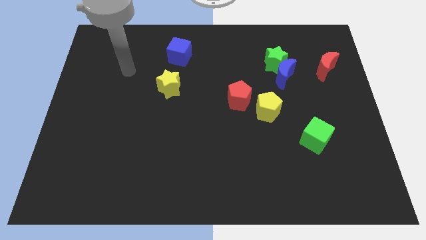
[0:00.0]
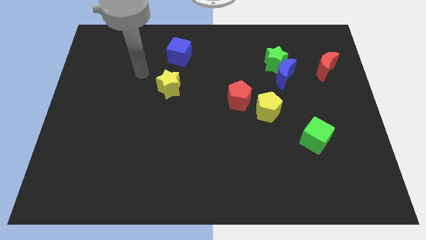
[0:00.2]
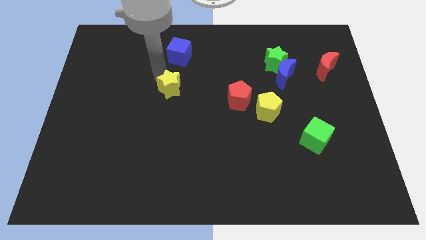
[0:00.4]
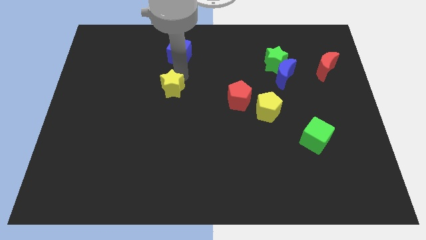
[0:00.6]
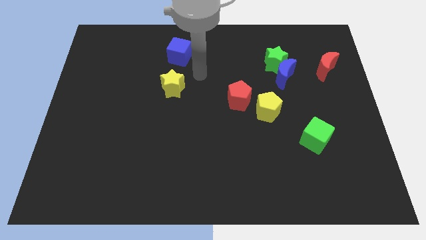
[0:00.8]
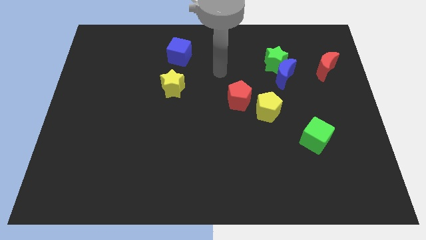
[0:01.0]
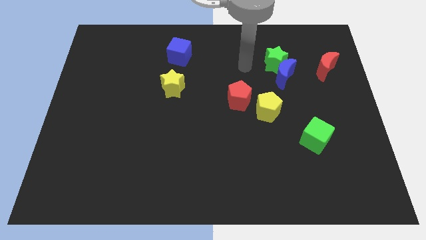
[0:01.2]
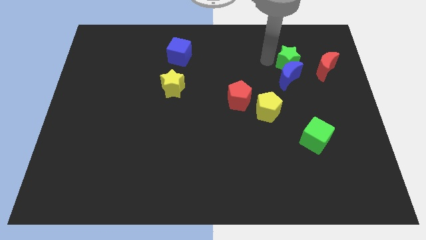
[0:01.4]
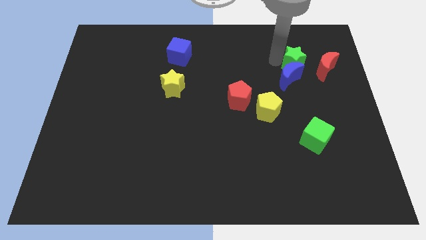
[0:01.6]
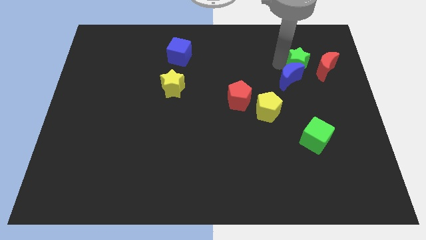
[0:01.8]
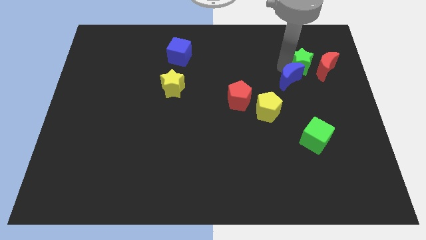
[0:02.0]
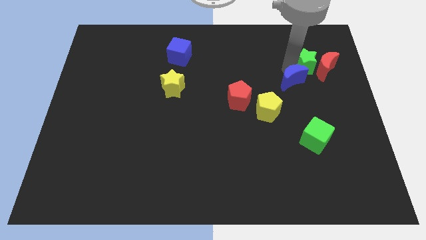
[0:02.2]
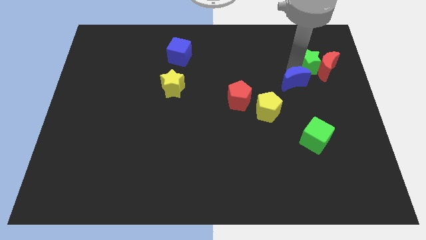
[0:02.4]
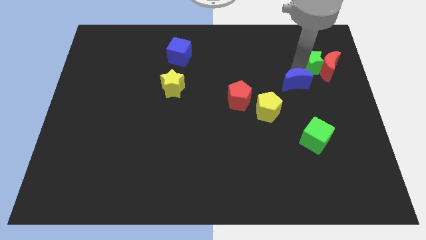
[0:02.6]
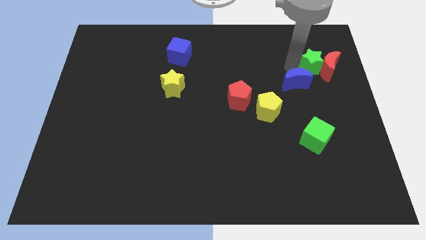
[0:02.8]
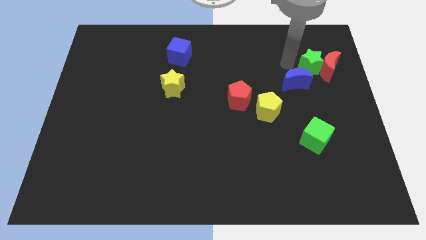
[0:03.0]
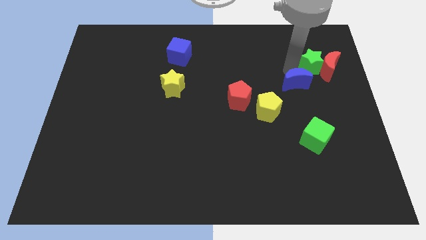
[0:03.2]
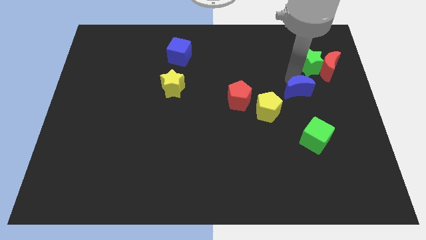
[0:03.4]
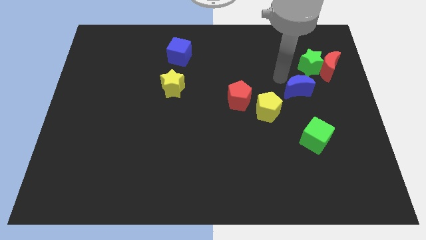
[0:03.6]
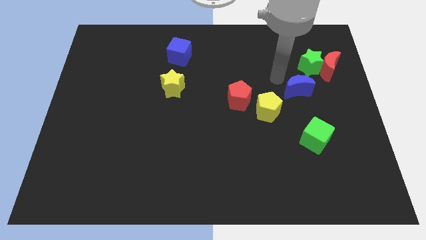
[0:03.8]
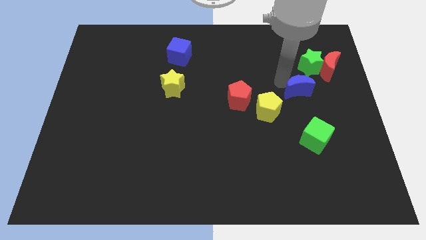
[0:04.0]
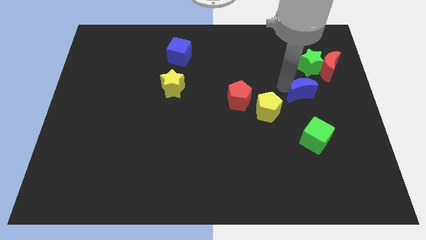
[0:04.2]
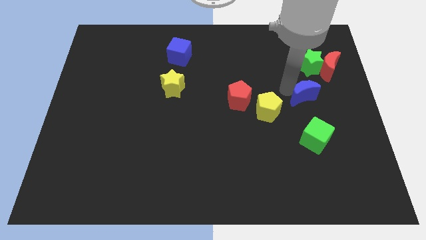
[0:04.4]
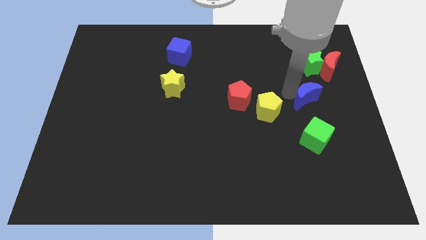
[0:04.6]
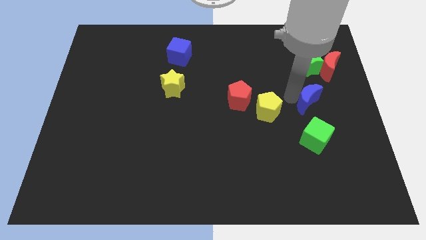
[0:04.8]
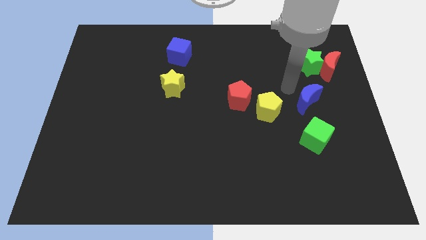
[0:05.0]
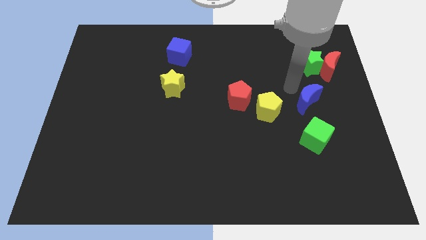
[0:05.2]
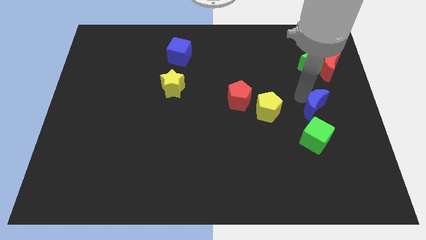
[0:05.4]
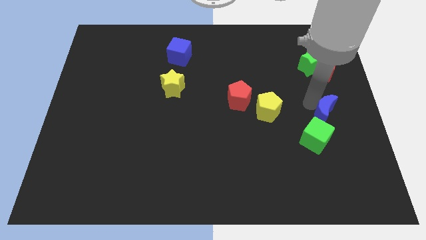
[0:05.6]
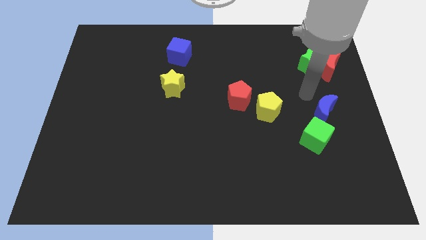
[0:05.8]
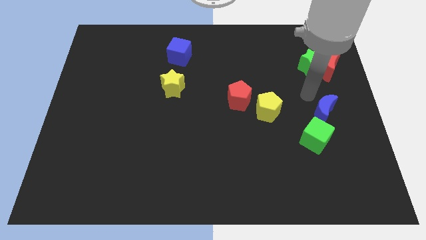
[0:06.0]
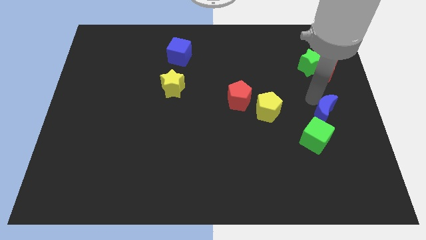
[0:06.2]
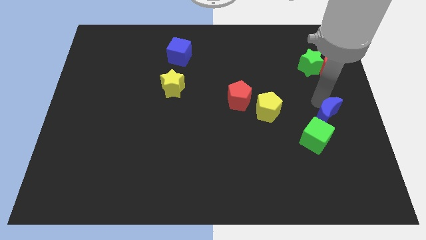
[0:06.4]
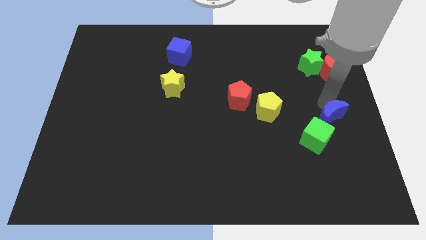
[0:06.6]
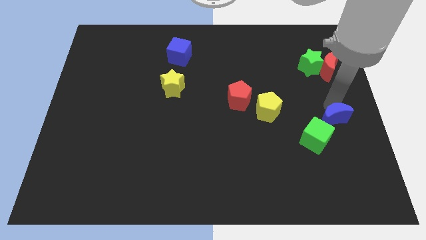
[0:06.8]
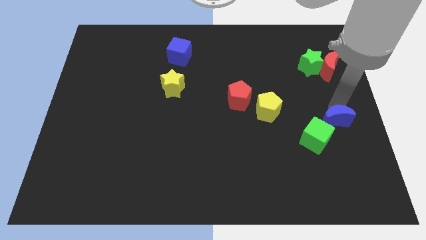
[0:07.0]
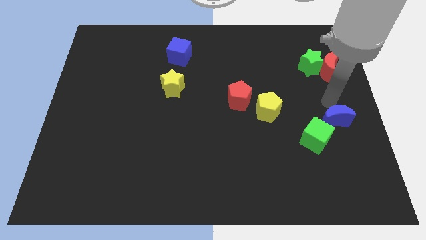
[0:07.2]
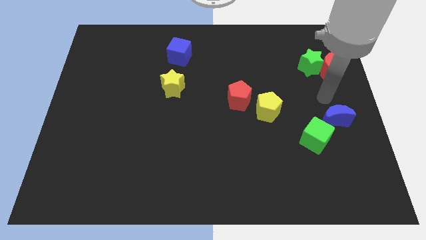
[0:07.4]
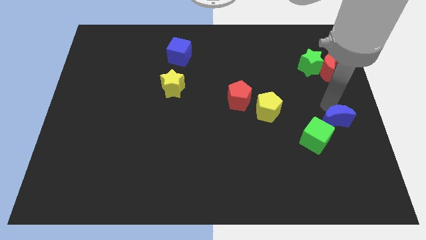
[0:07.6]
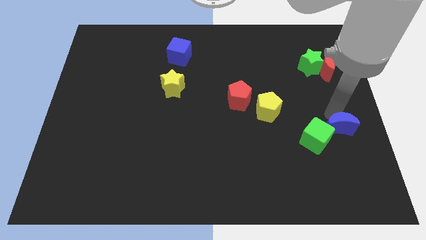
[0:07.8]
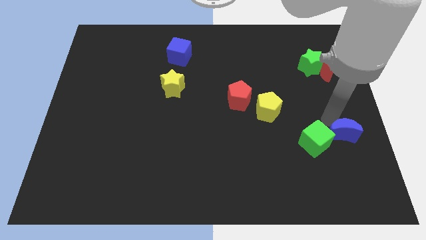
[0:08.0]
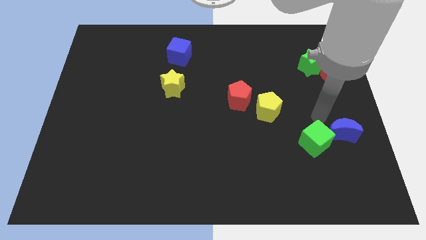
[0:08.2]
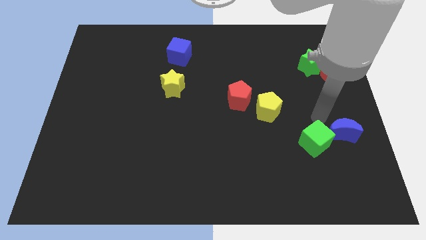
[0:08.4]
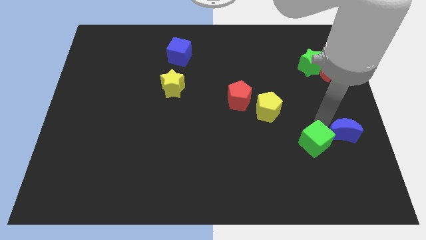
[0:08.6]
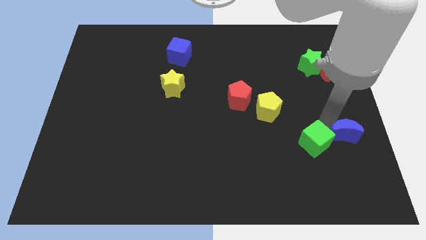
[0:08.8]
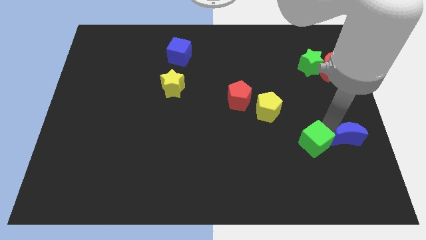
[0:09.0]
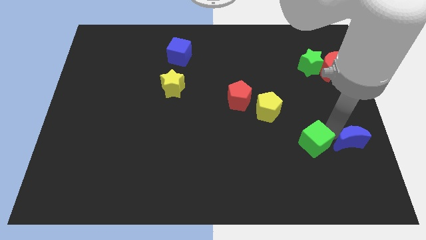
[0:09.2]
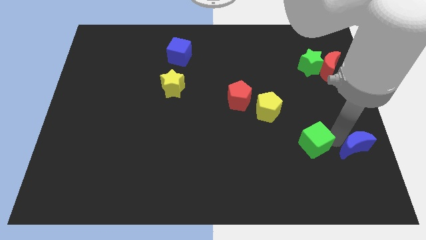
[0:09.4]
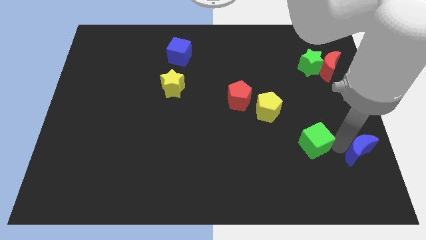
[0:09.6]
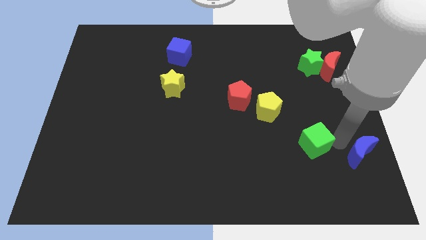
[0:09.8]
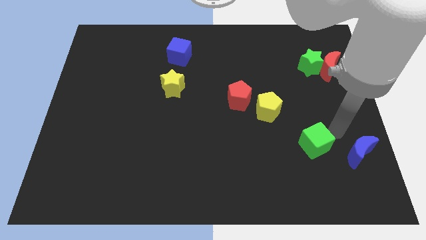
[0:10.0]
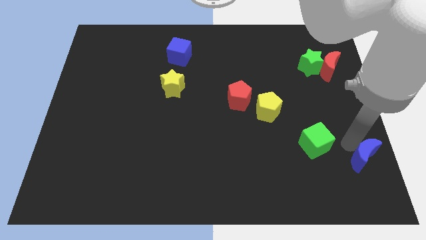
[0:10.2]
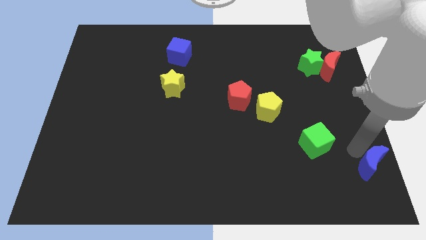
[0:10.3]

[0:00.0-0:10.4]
push the blue moon to the lower right corner

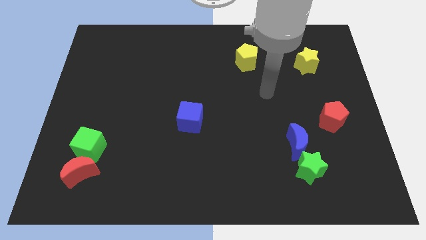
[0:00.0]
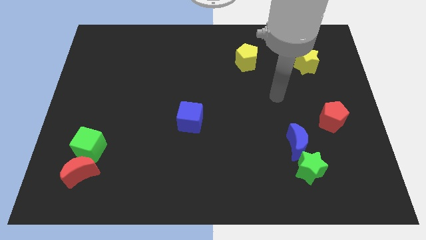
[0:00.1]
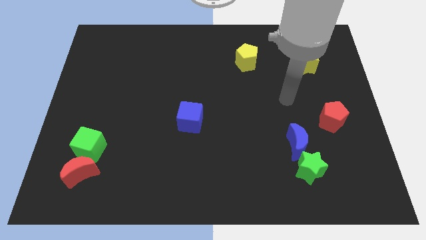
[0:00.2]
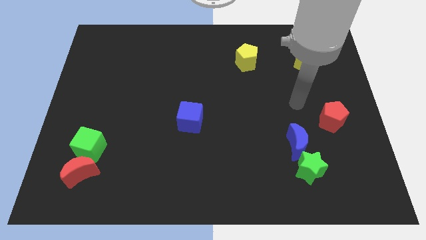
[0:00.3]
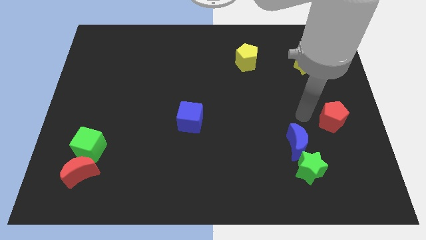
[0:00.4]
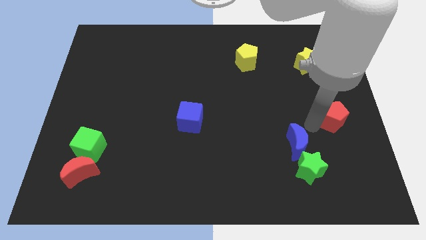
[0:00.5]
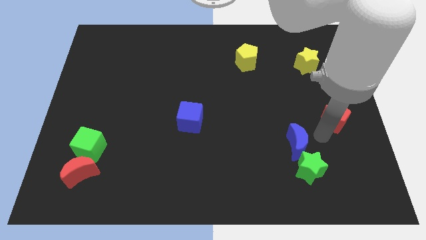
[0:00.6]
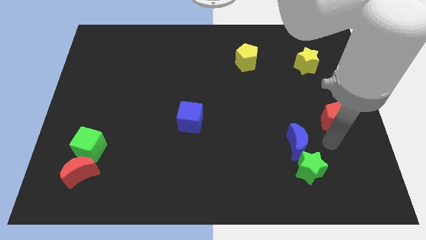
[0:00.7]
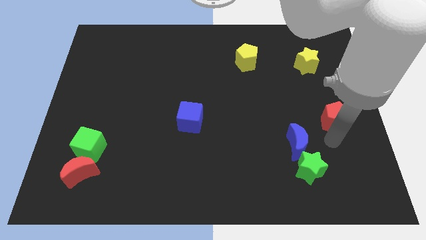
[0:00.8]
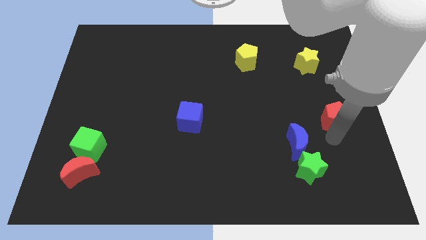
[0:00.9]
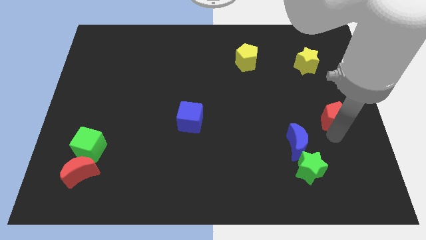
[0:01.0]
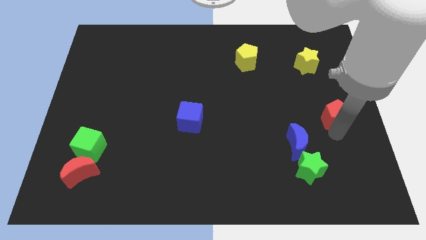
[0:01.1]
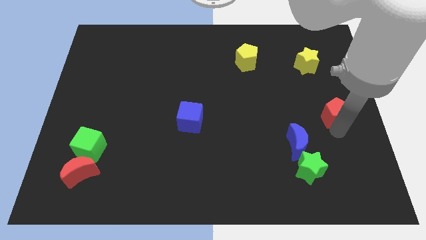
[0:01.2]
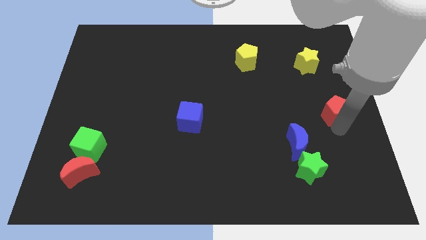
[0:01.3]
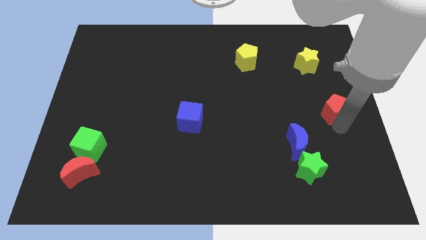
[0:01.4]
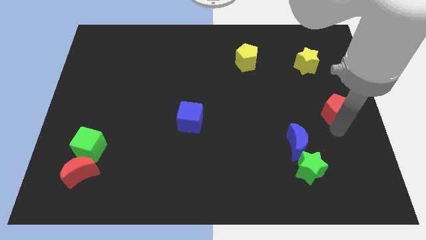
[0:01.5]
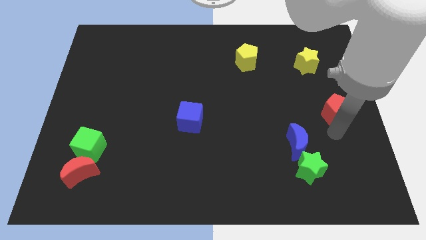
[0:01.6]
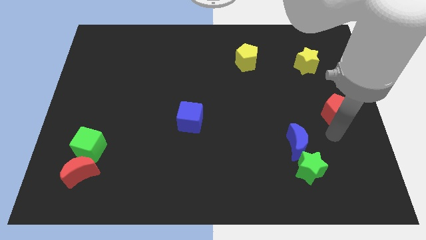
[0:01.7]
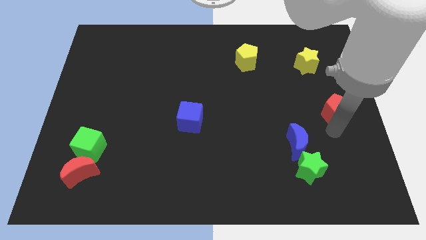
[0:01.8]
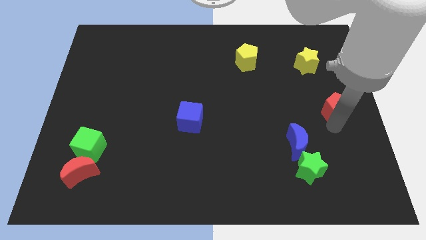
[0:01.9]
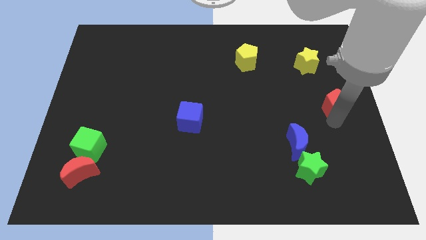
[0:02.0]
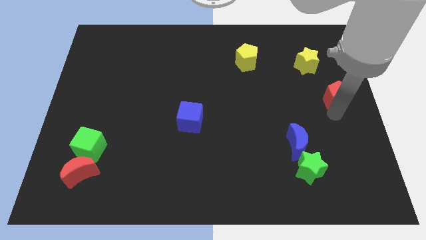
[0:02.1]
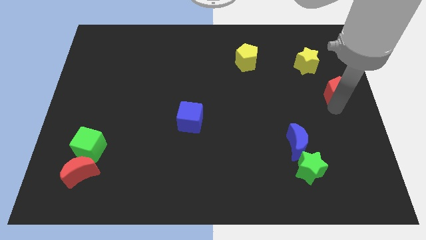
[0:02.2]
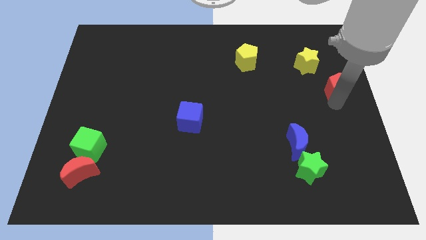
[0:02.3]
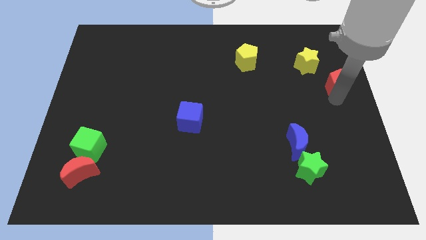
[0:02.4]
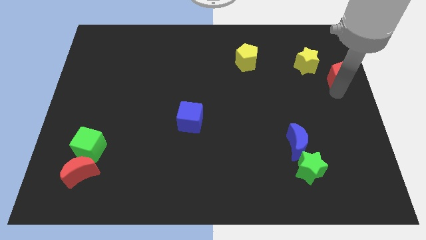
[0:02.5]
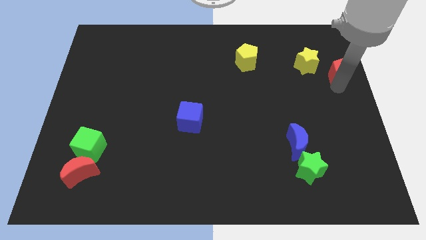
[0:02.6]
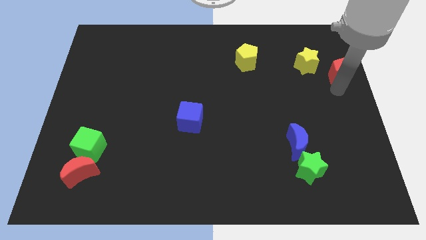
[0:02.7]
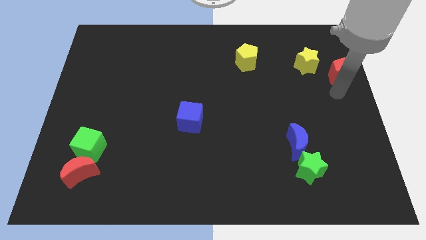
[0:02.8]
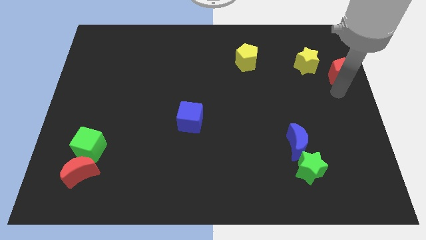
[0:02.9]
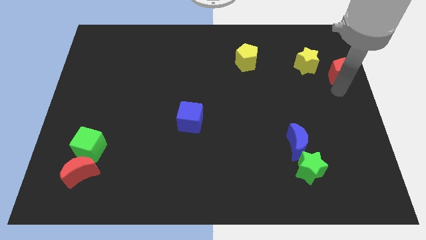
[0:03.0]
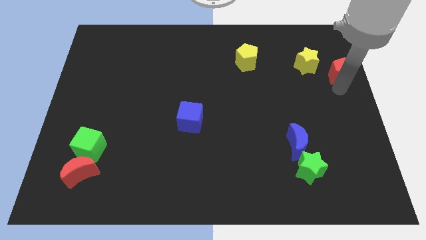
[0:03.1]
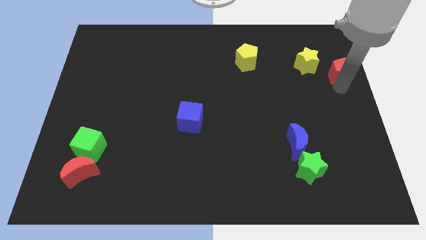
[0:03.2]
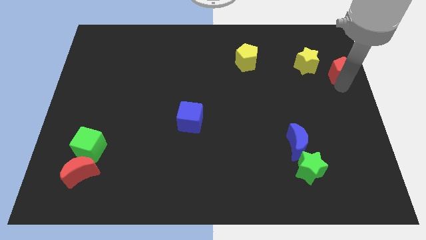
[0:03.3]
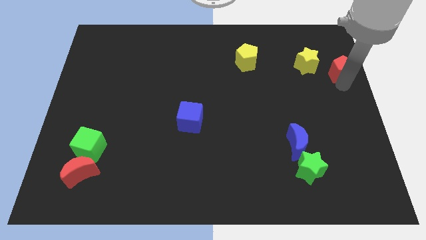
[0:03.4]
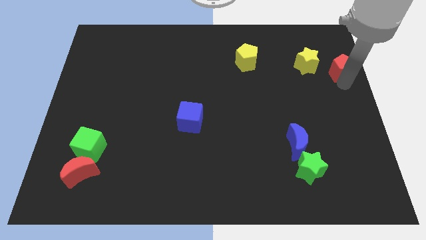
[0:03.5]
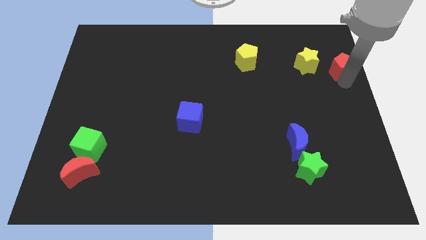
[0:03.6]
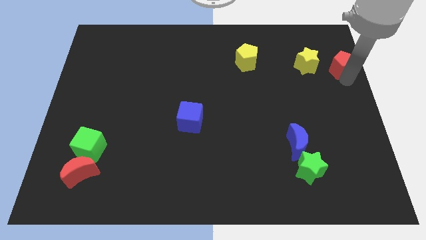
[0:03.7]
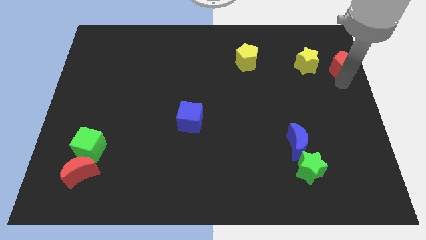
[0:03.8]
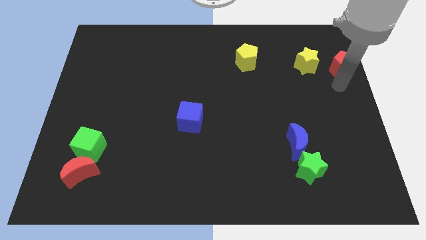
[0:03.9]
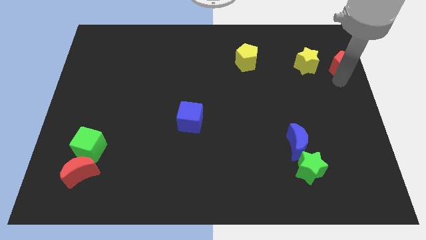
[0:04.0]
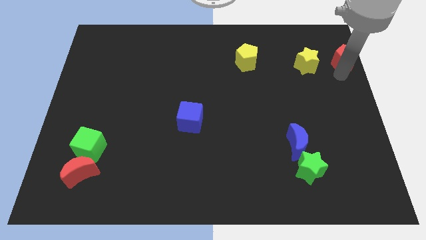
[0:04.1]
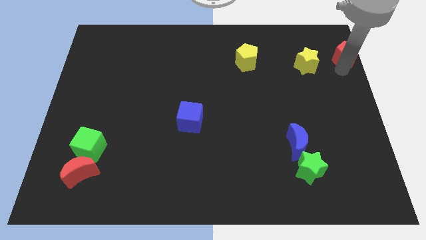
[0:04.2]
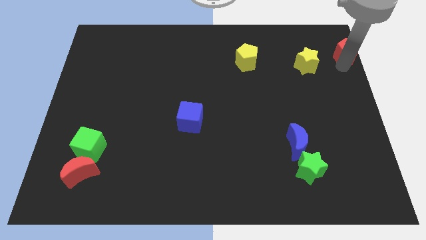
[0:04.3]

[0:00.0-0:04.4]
push the red pentagon to the top right of the board
